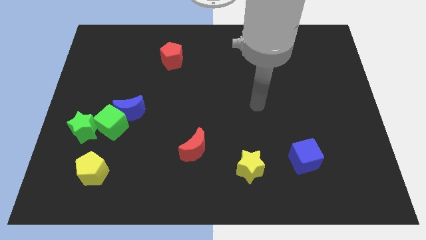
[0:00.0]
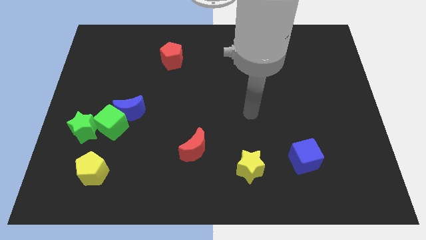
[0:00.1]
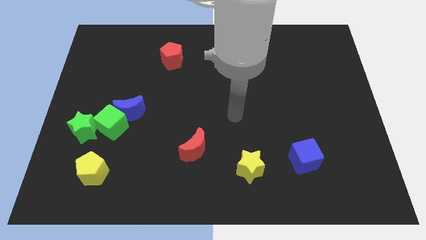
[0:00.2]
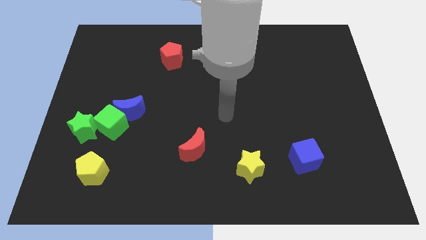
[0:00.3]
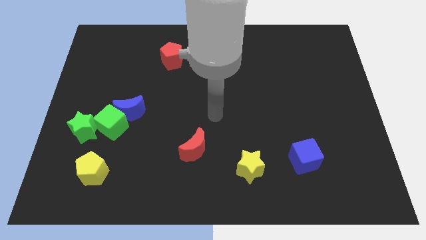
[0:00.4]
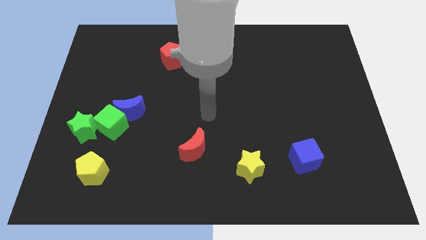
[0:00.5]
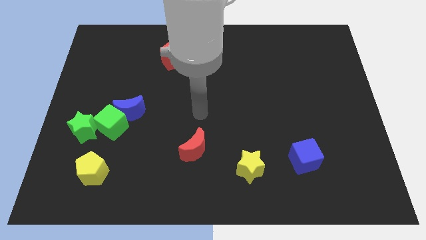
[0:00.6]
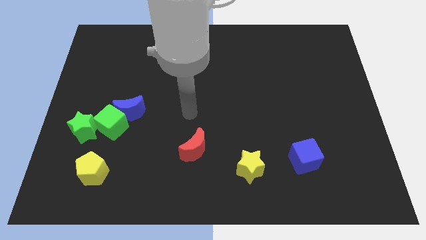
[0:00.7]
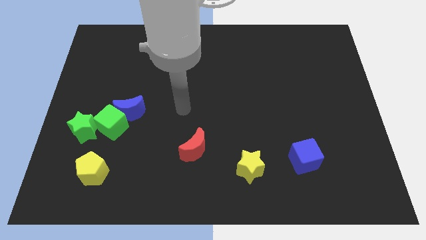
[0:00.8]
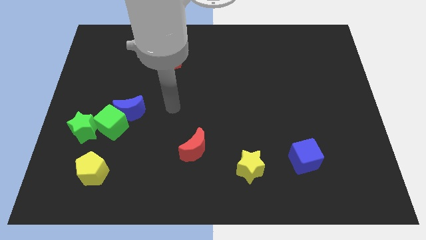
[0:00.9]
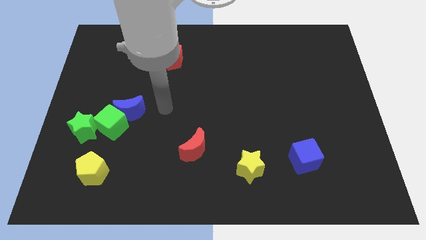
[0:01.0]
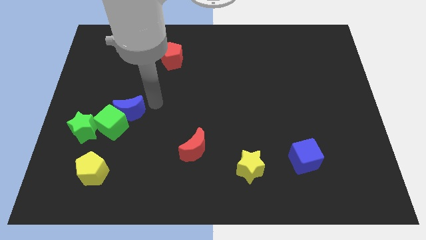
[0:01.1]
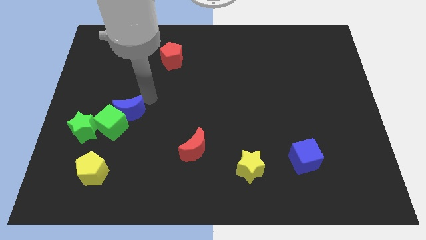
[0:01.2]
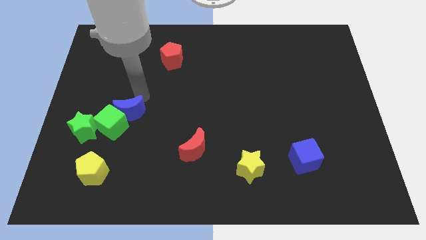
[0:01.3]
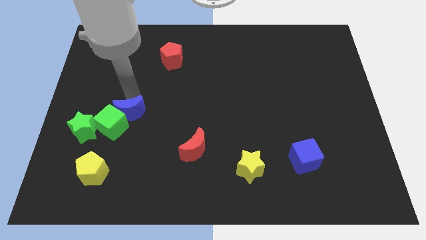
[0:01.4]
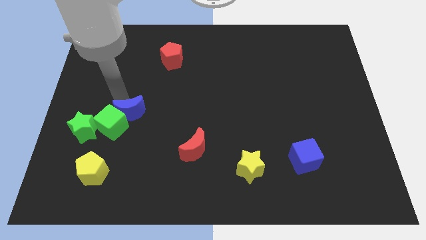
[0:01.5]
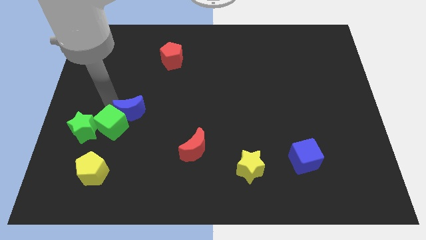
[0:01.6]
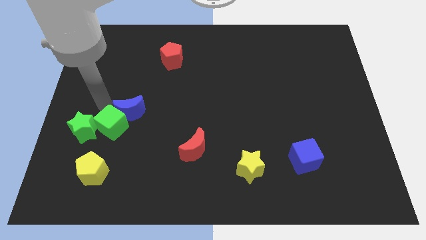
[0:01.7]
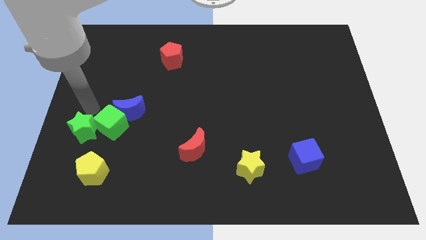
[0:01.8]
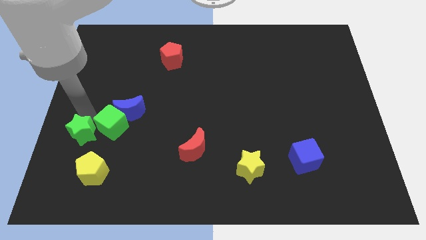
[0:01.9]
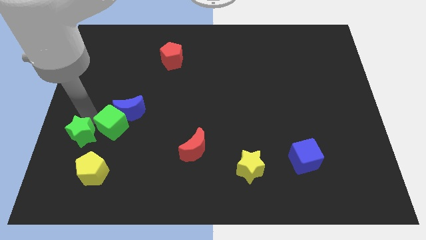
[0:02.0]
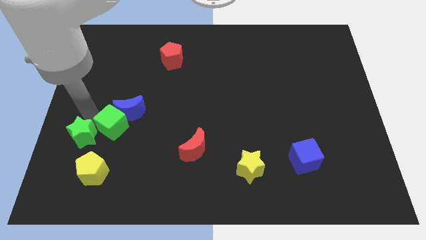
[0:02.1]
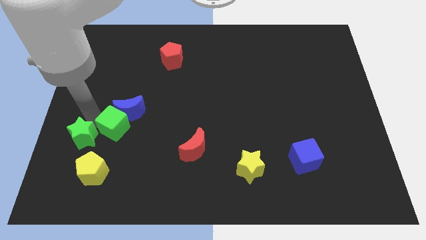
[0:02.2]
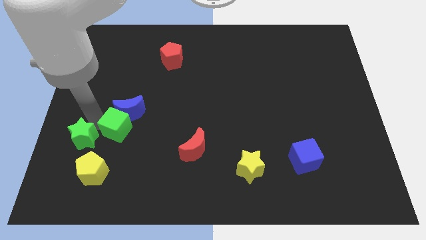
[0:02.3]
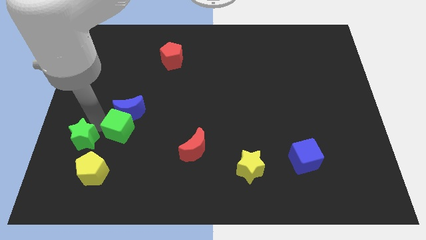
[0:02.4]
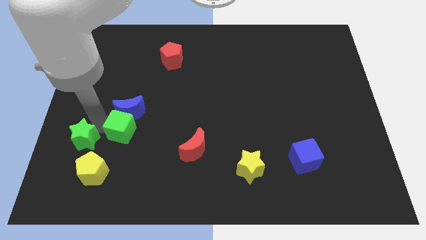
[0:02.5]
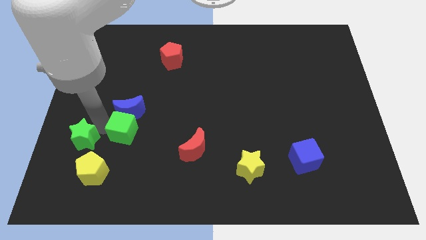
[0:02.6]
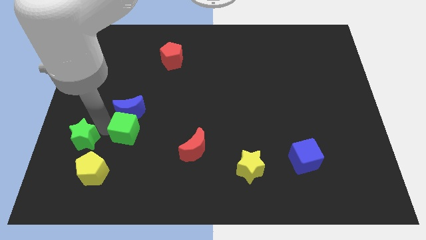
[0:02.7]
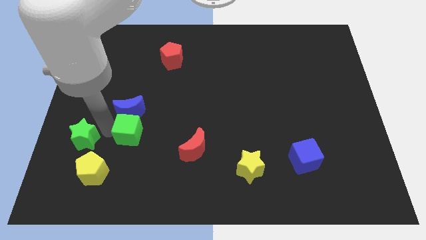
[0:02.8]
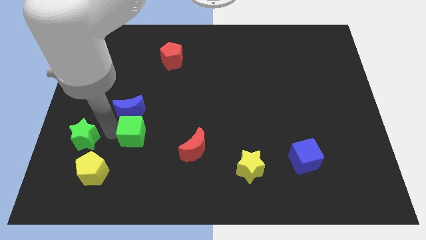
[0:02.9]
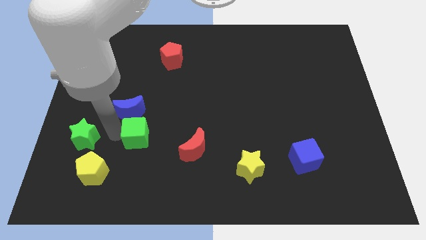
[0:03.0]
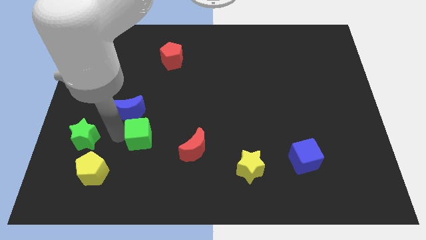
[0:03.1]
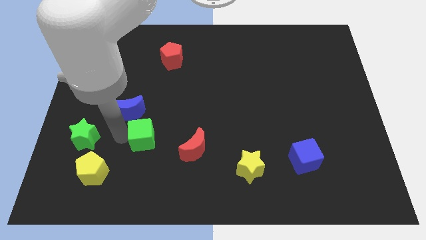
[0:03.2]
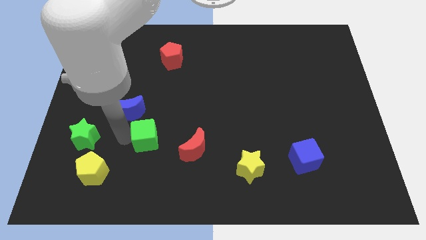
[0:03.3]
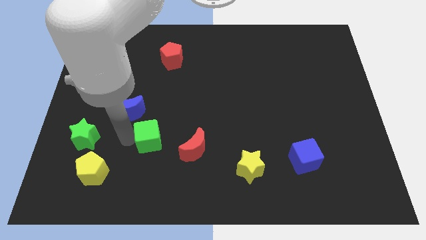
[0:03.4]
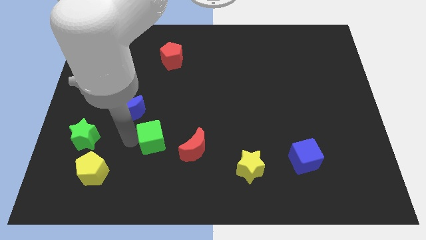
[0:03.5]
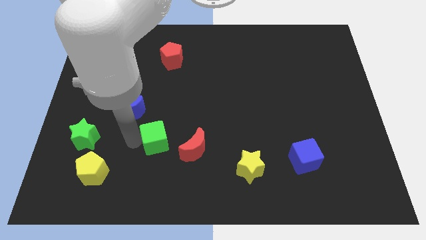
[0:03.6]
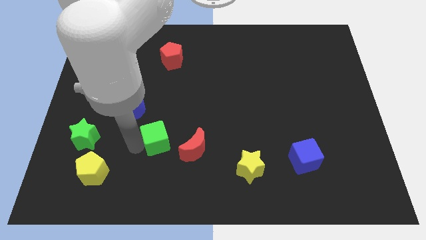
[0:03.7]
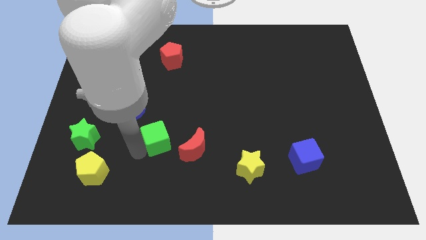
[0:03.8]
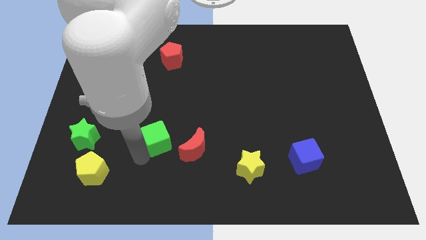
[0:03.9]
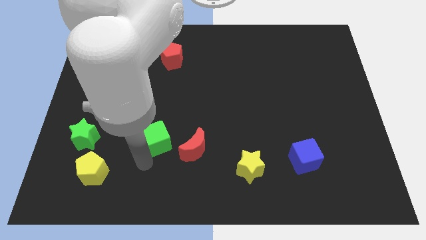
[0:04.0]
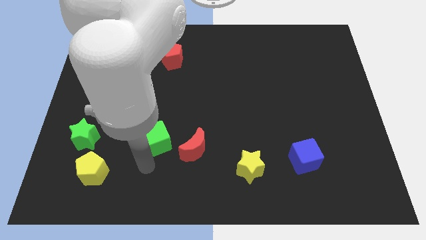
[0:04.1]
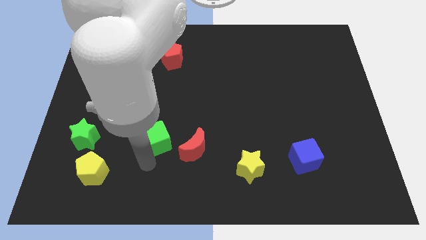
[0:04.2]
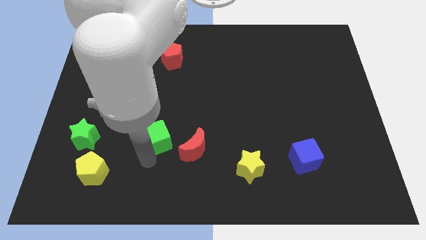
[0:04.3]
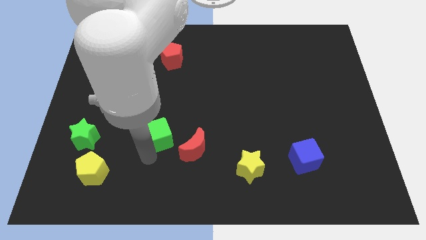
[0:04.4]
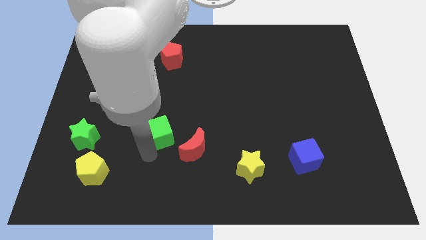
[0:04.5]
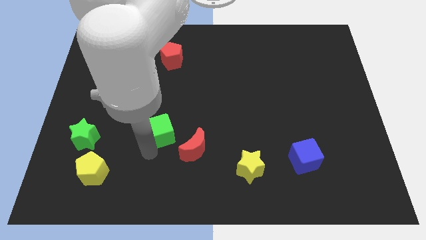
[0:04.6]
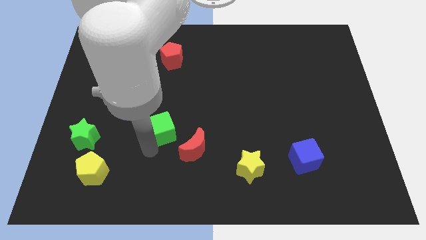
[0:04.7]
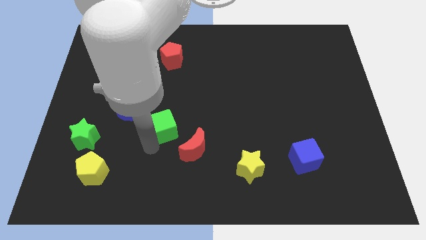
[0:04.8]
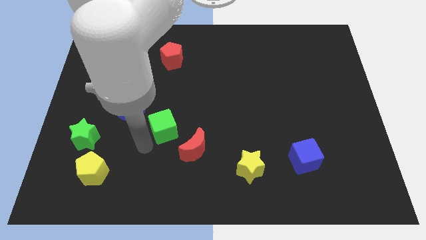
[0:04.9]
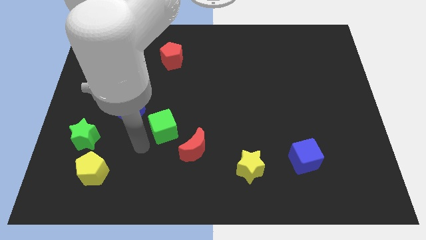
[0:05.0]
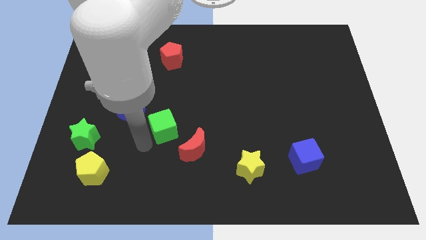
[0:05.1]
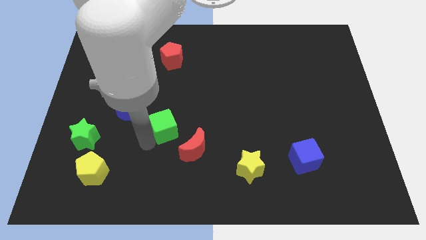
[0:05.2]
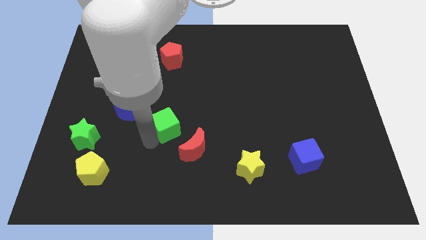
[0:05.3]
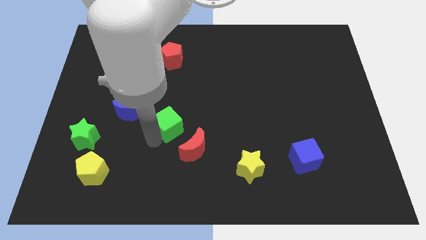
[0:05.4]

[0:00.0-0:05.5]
put the green cube to the center of the board
